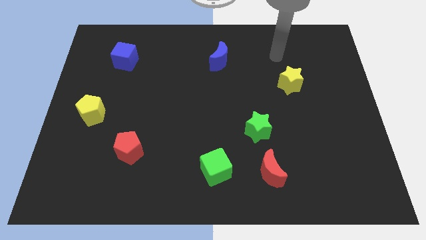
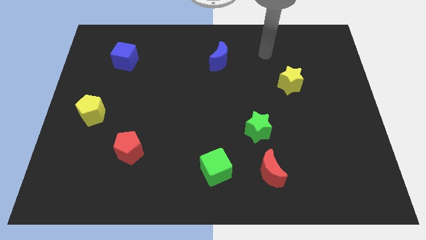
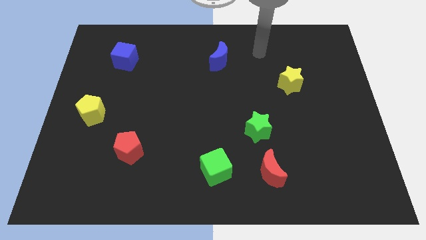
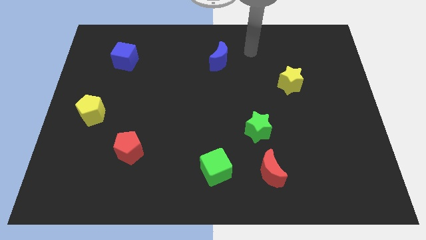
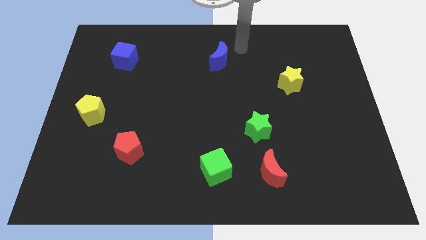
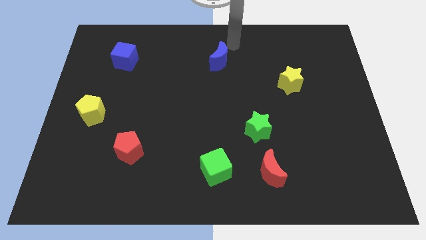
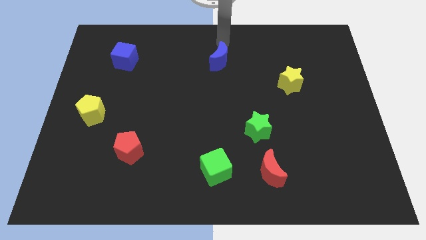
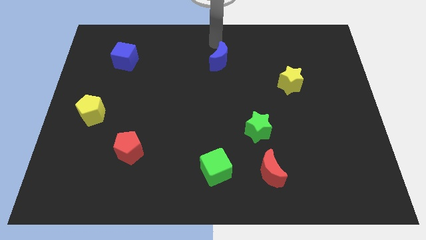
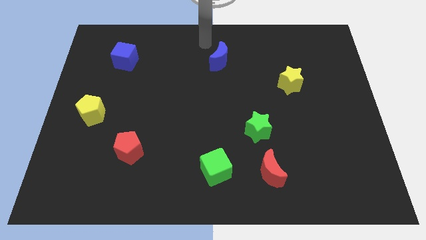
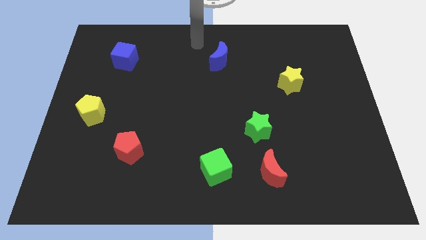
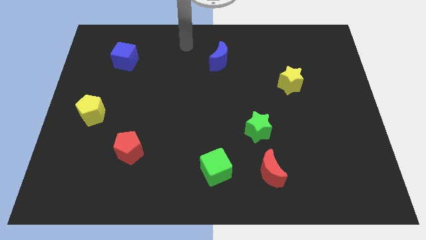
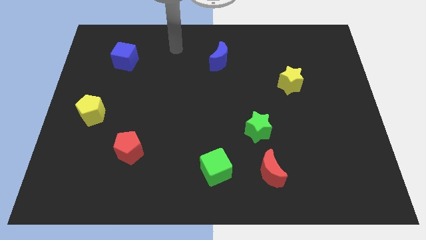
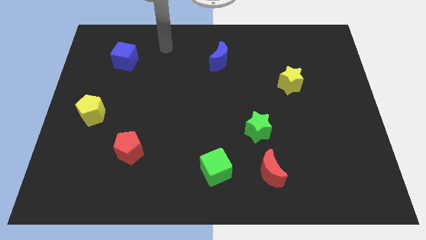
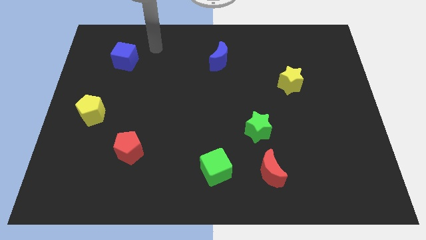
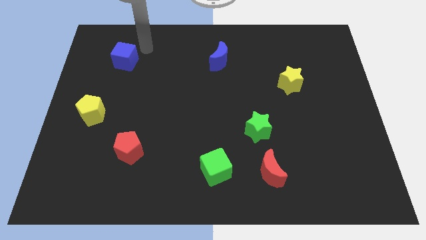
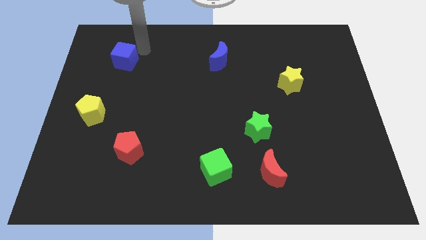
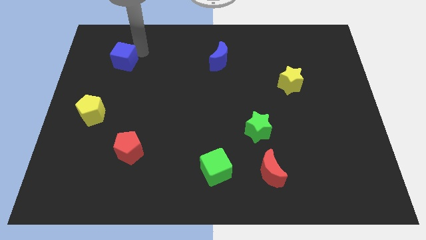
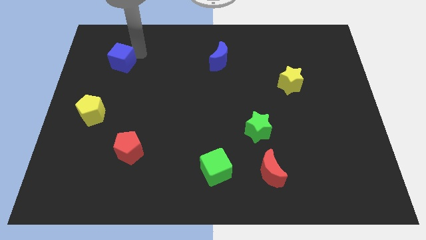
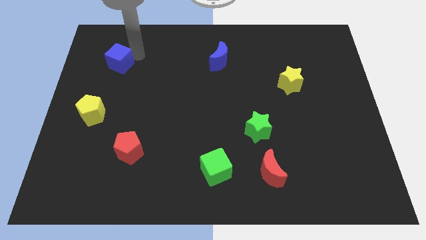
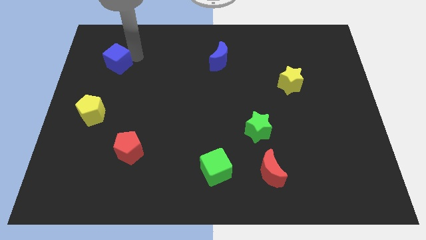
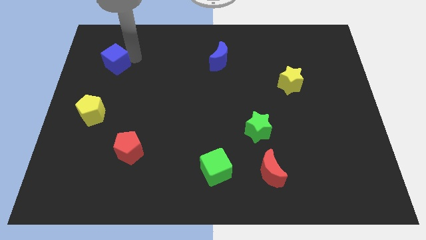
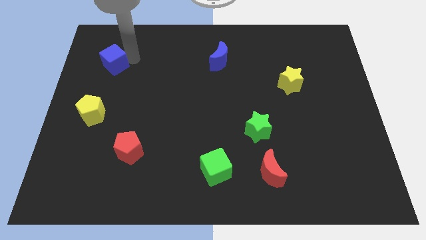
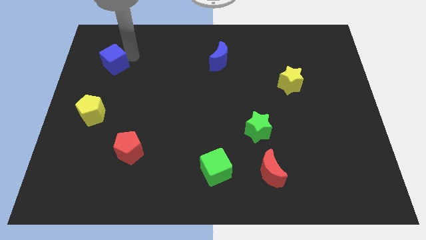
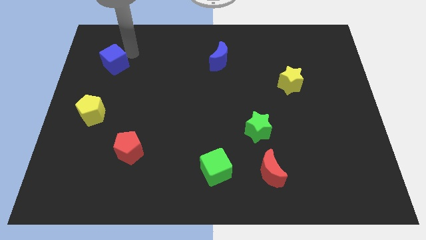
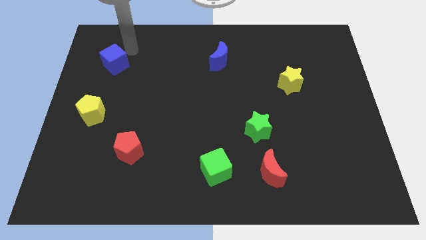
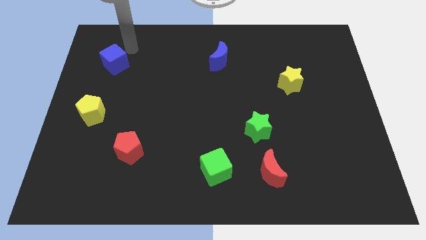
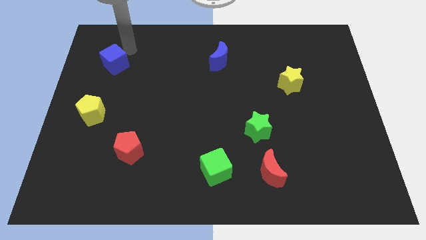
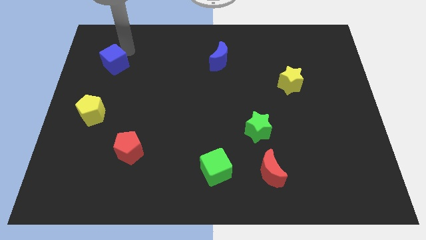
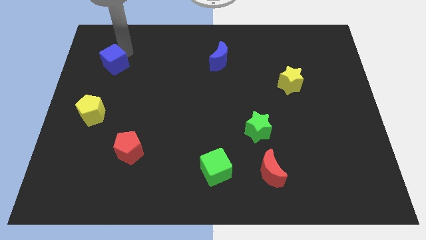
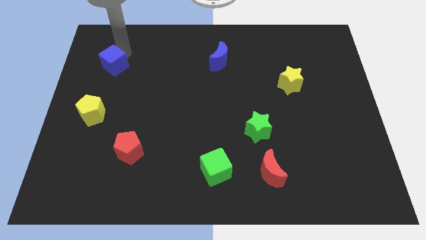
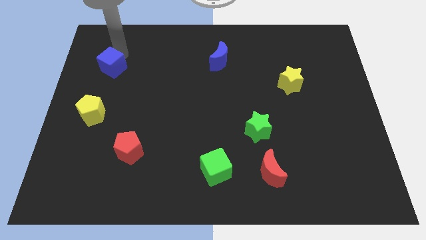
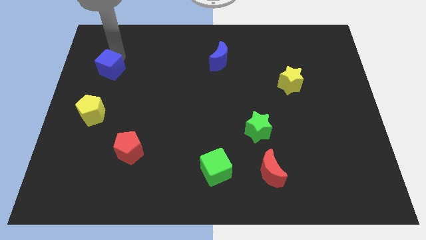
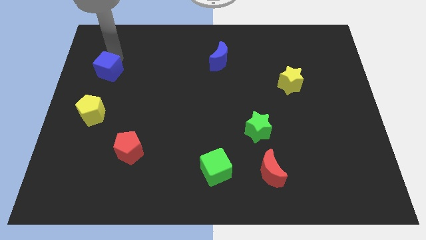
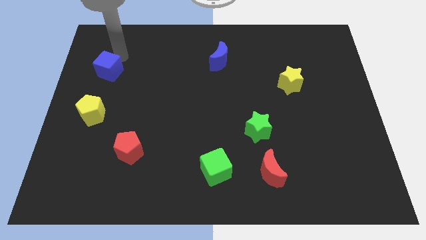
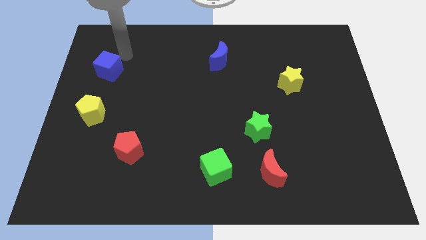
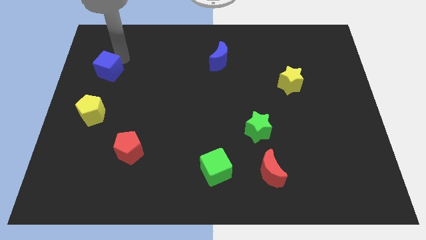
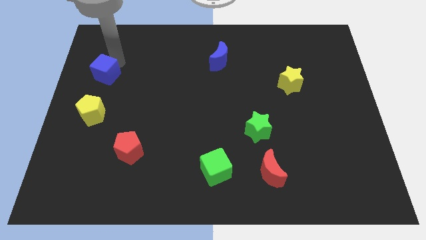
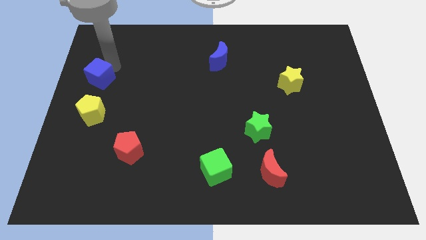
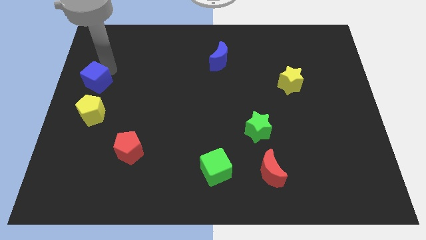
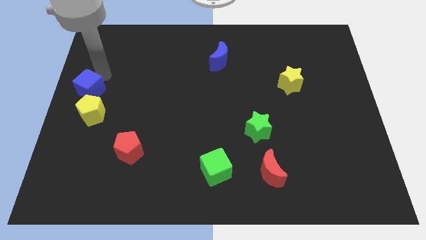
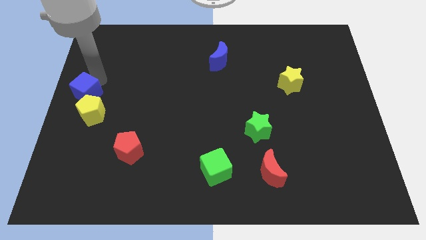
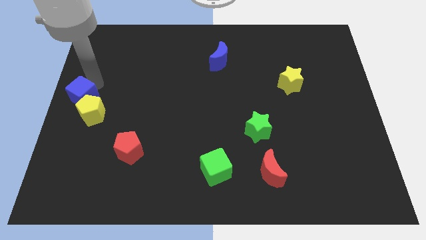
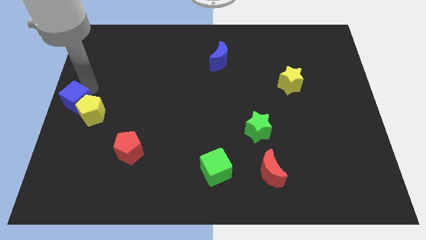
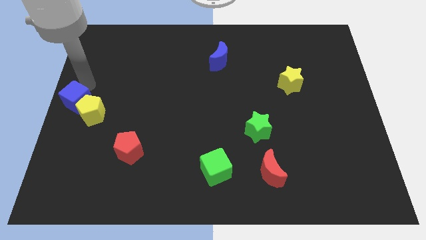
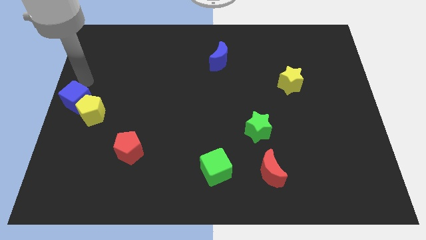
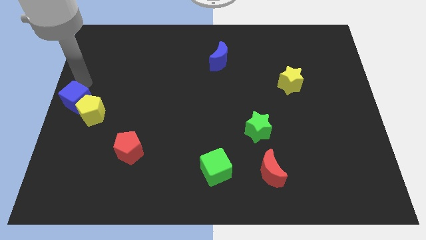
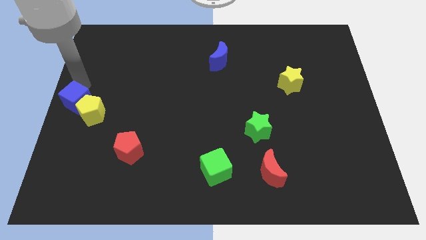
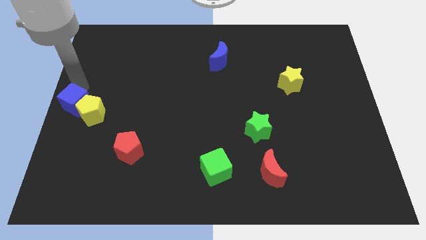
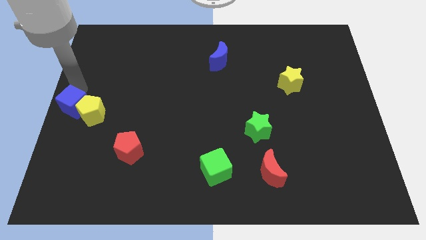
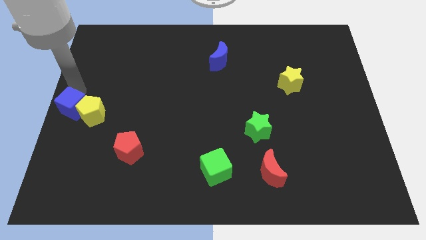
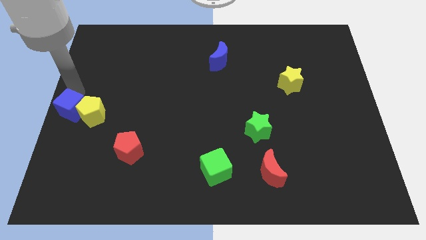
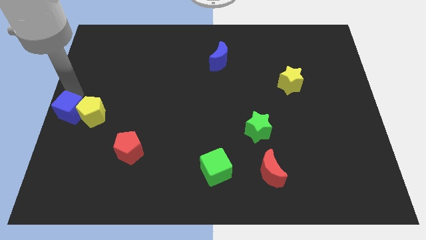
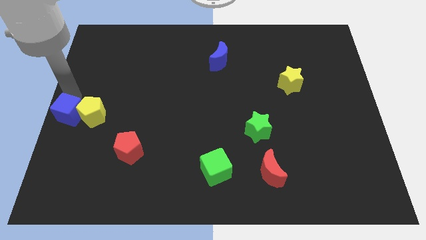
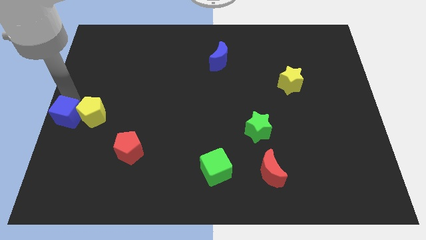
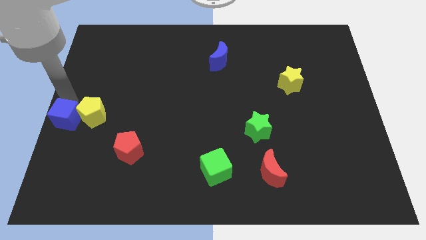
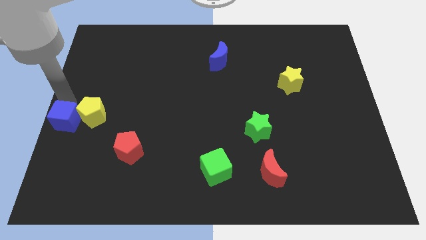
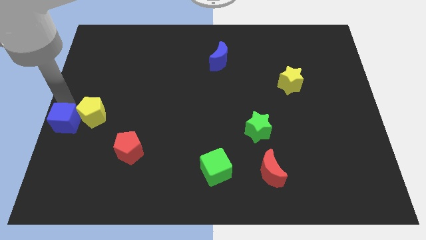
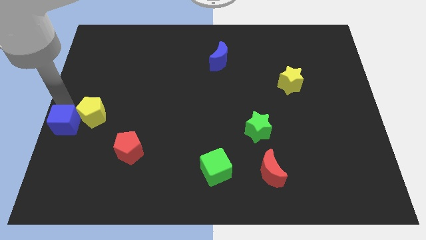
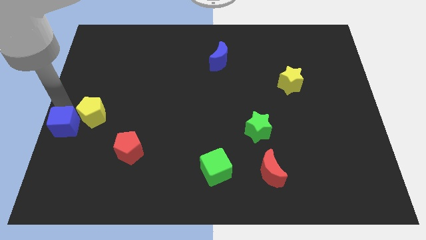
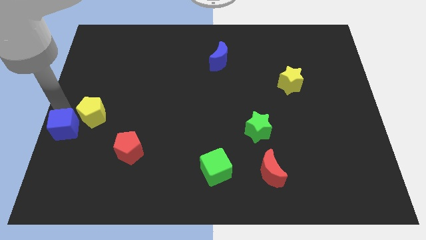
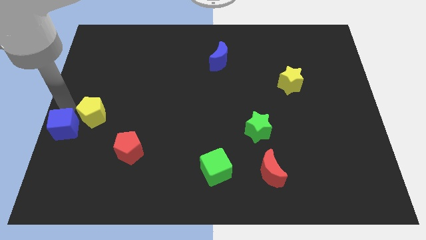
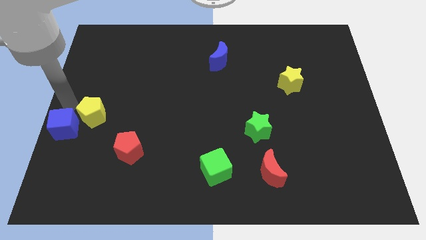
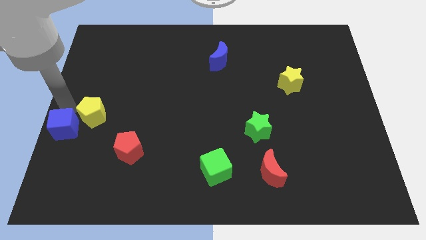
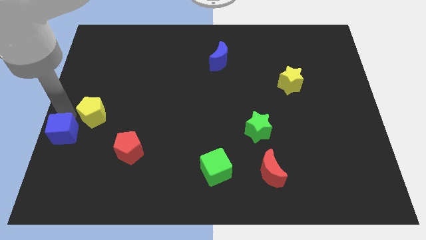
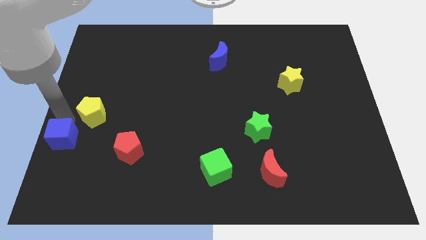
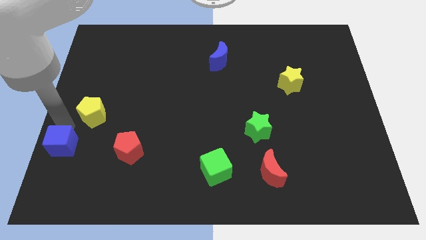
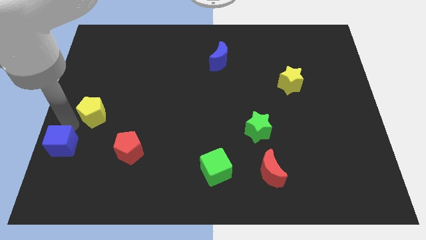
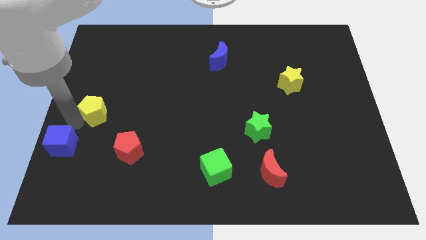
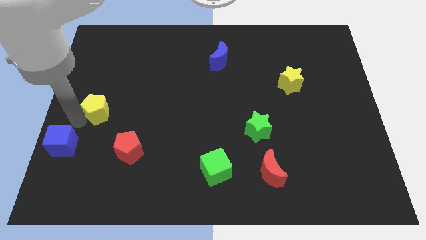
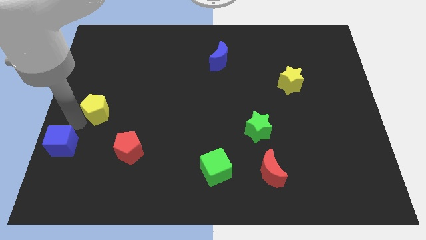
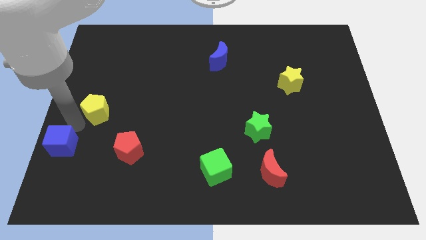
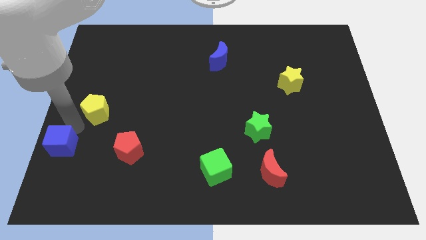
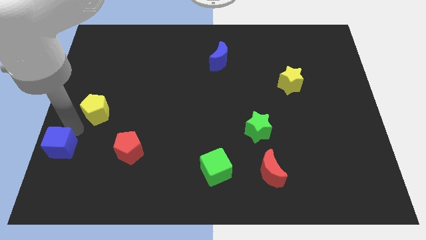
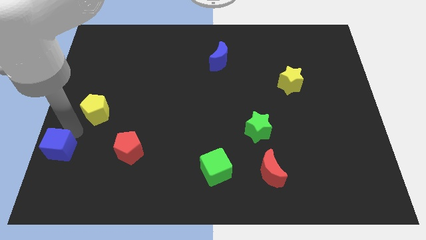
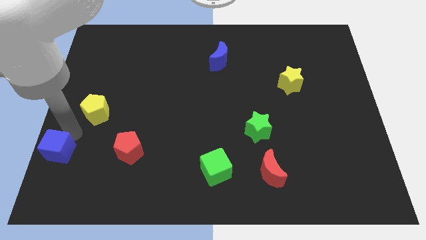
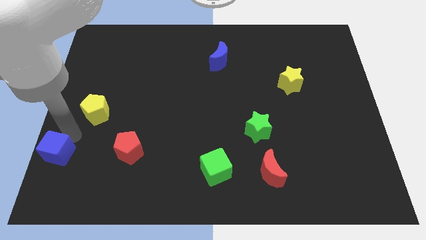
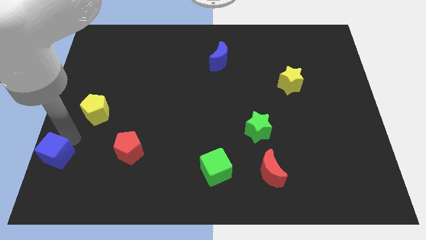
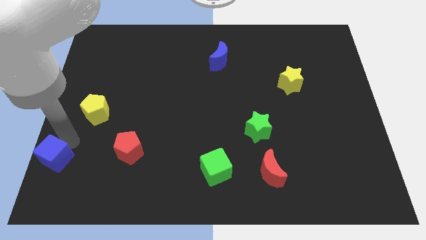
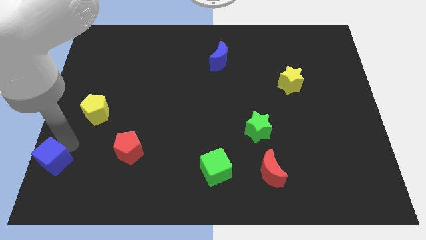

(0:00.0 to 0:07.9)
slide the blue cube to the lower left corner
